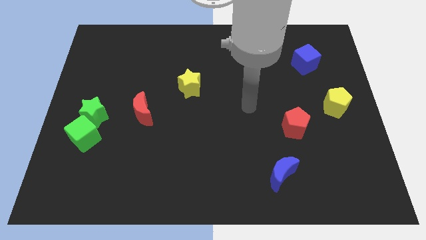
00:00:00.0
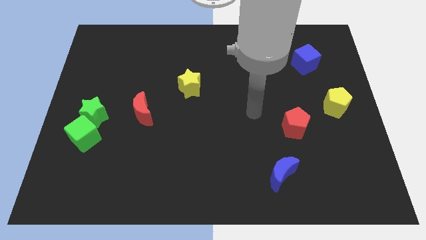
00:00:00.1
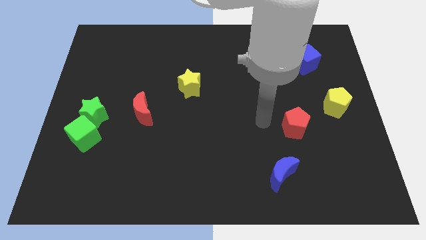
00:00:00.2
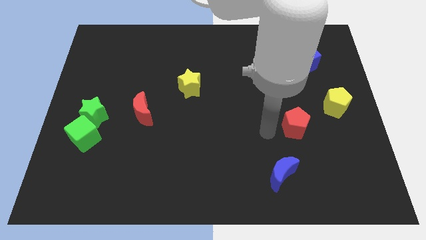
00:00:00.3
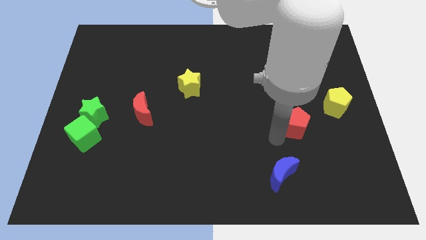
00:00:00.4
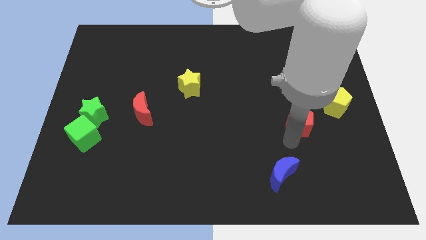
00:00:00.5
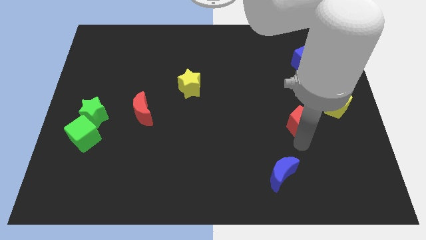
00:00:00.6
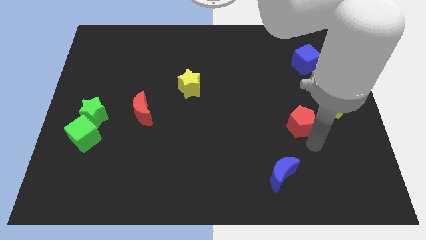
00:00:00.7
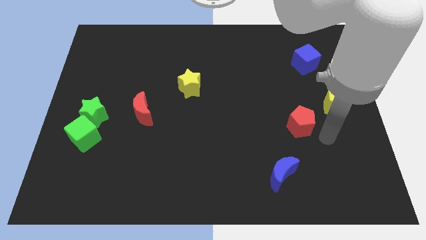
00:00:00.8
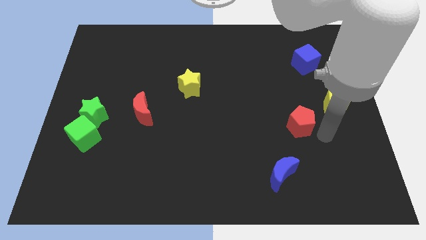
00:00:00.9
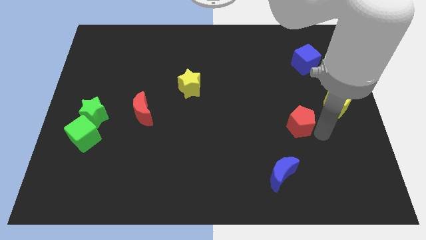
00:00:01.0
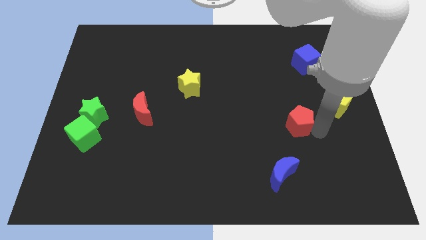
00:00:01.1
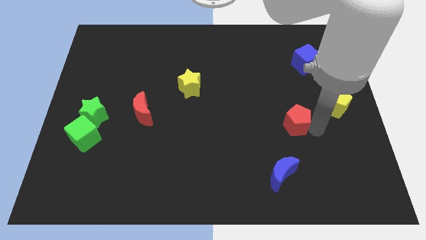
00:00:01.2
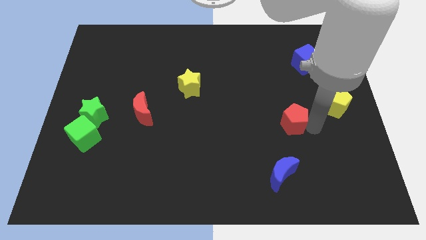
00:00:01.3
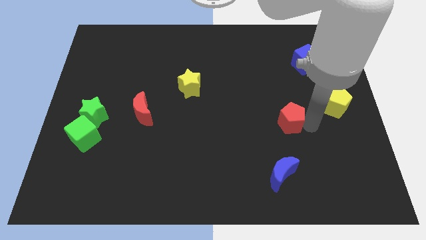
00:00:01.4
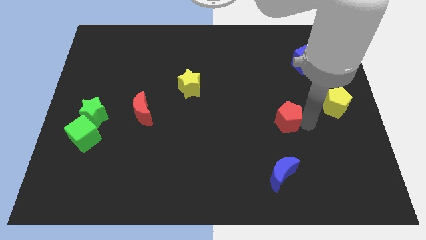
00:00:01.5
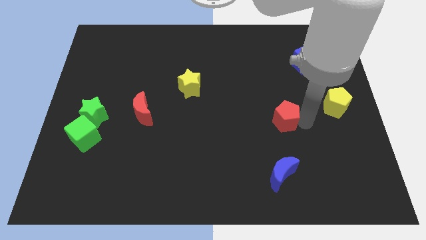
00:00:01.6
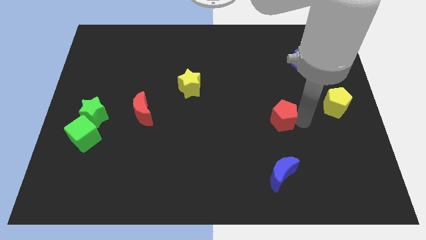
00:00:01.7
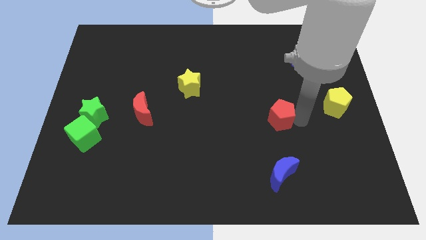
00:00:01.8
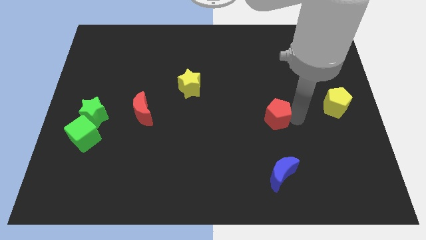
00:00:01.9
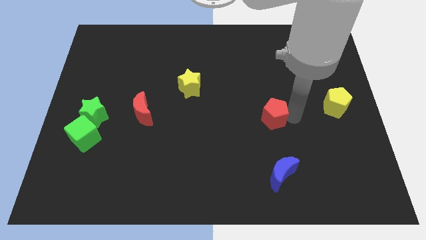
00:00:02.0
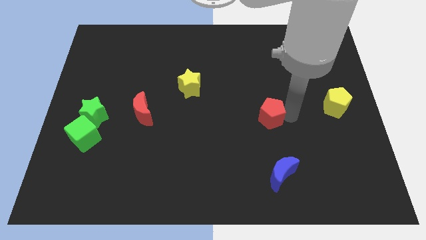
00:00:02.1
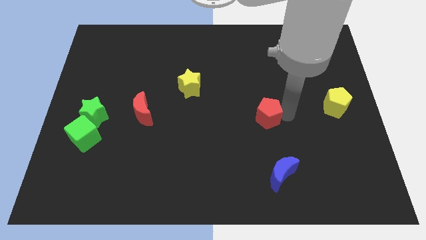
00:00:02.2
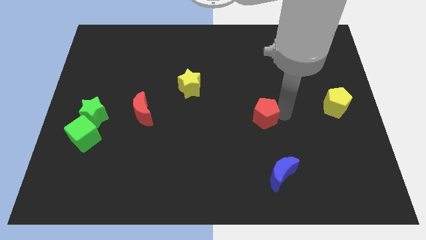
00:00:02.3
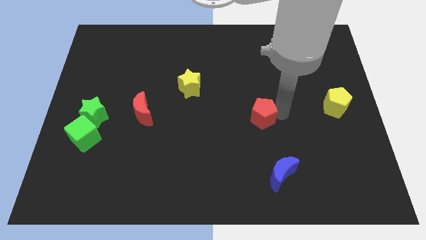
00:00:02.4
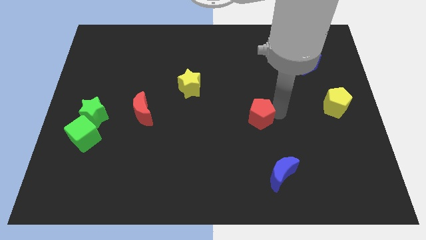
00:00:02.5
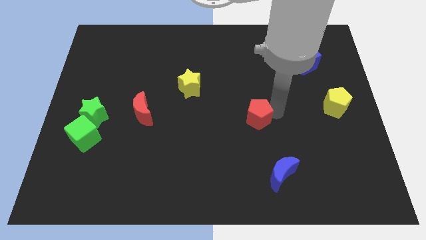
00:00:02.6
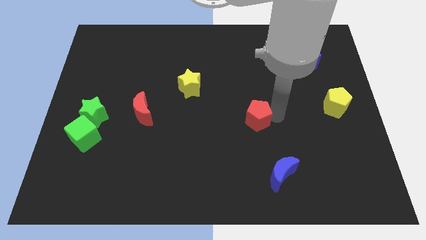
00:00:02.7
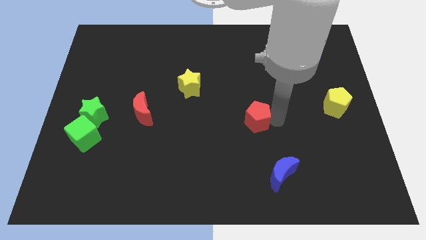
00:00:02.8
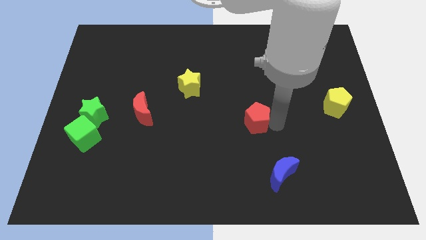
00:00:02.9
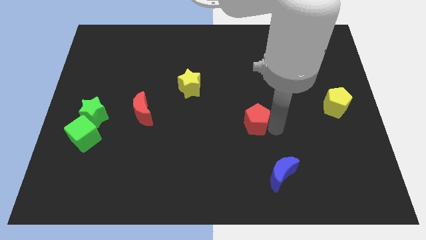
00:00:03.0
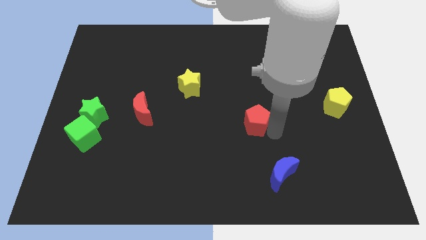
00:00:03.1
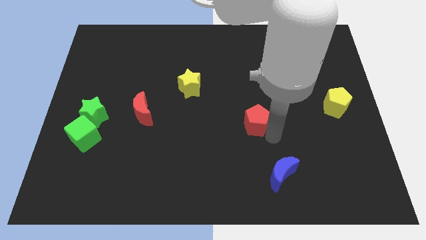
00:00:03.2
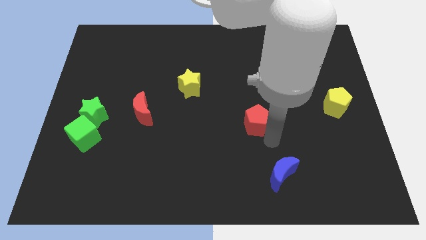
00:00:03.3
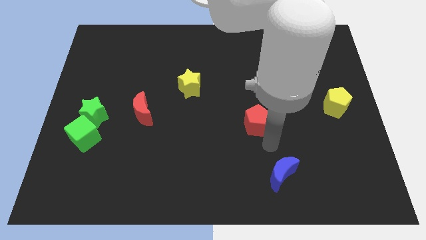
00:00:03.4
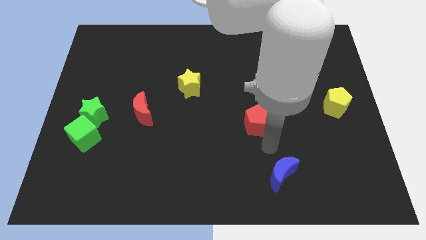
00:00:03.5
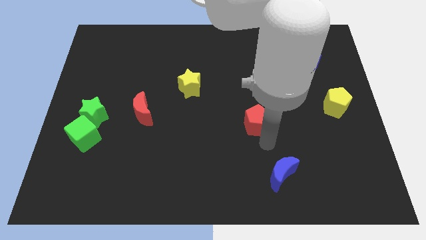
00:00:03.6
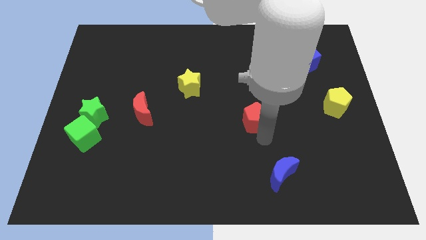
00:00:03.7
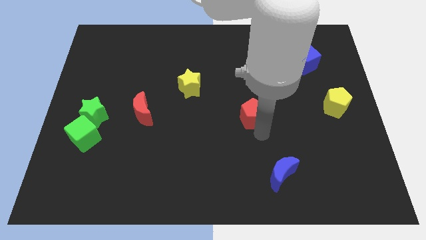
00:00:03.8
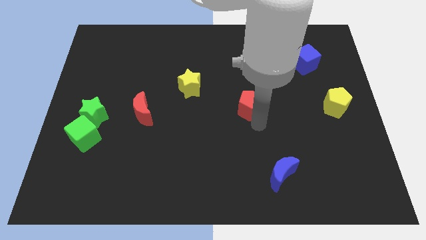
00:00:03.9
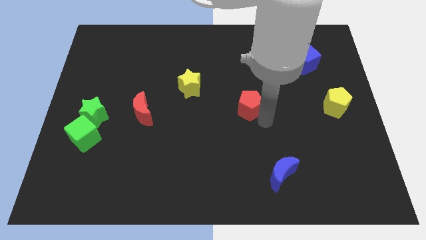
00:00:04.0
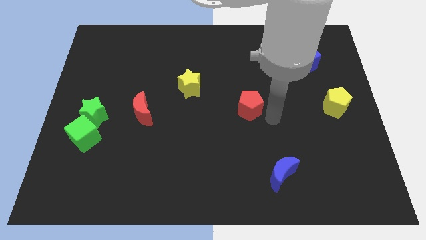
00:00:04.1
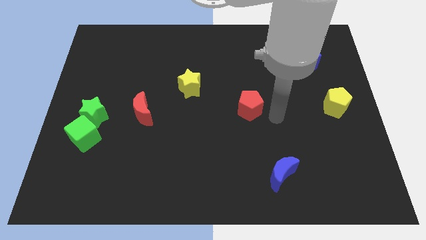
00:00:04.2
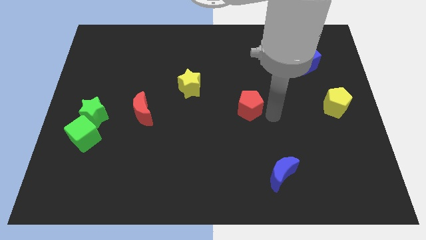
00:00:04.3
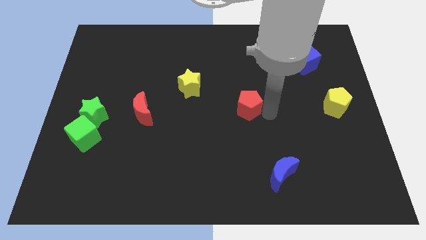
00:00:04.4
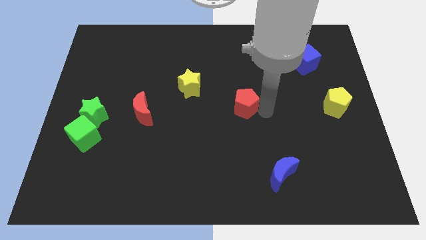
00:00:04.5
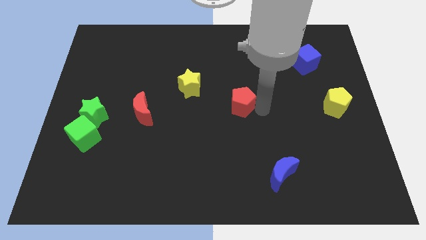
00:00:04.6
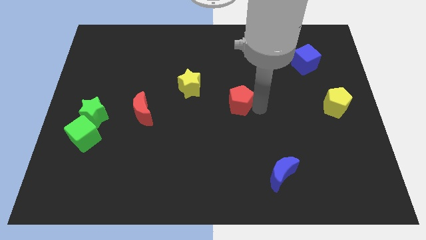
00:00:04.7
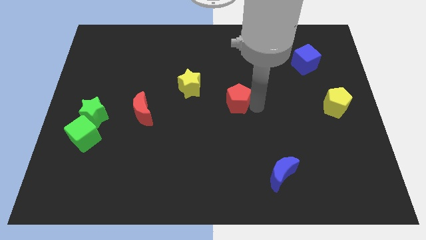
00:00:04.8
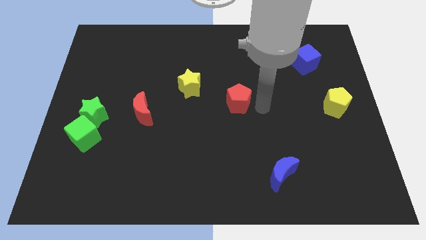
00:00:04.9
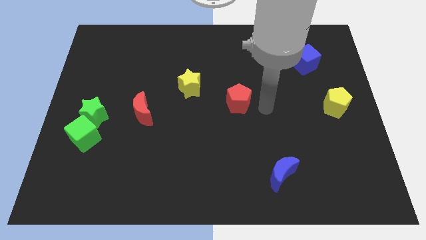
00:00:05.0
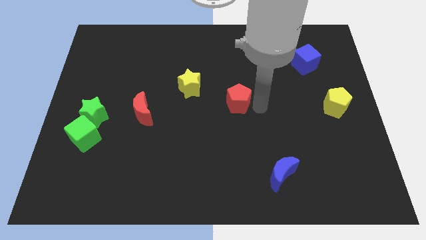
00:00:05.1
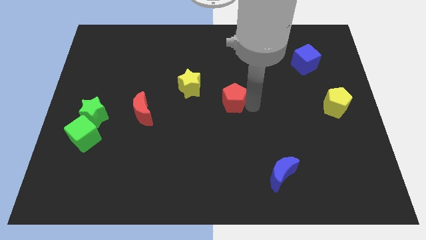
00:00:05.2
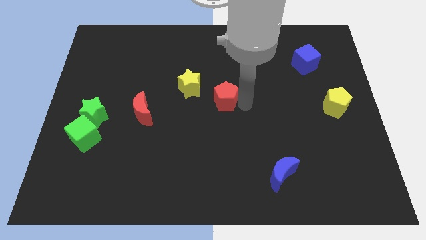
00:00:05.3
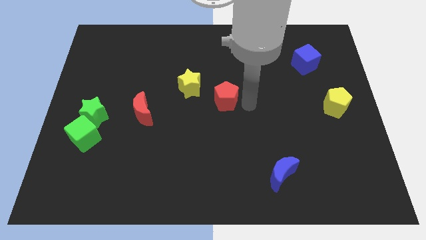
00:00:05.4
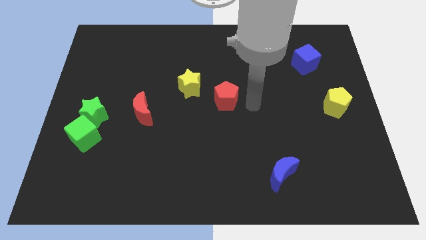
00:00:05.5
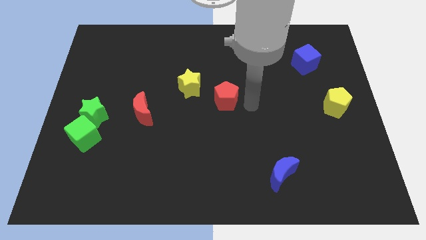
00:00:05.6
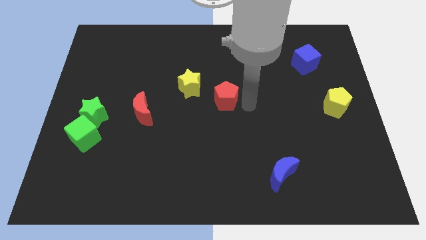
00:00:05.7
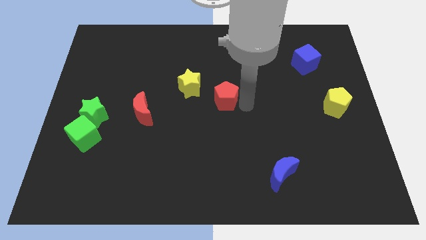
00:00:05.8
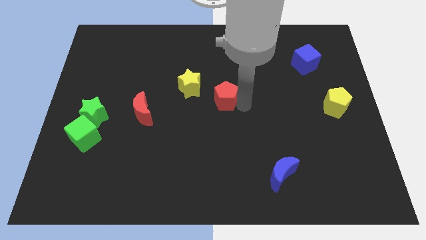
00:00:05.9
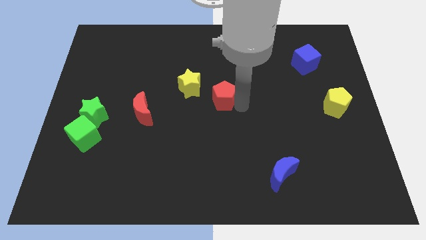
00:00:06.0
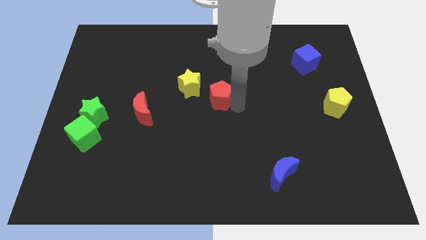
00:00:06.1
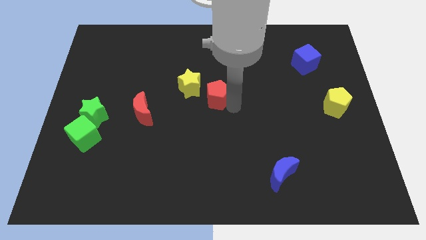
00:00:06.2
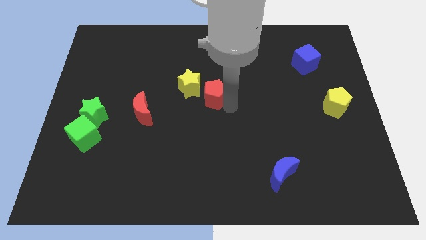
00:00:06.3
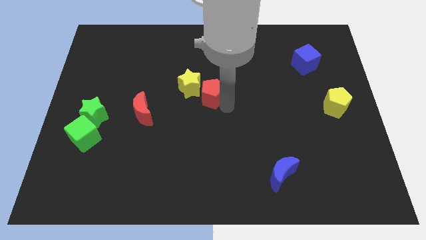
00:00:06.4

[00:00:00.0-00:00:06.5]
slide the red pentagon close to the yellow star

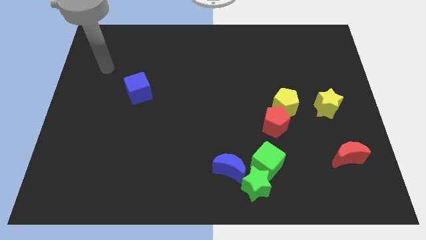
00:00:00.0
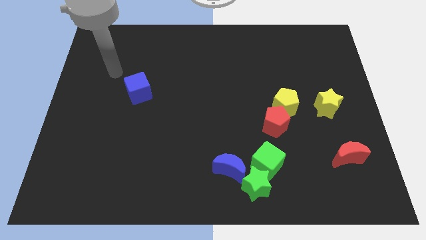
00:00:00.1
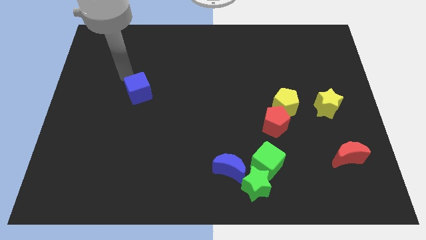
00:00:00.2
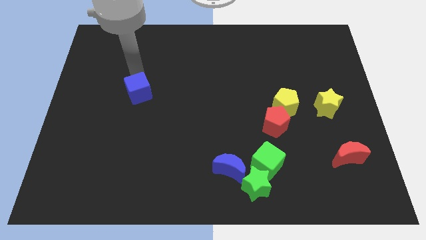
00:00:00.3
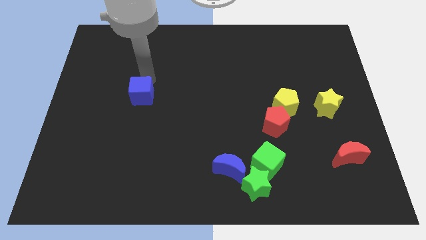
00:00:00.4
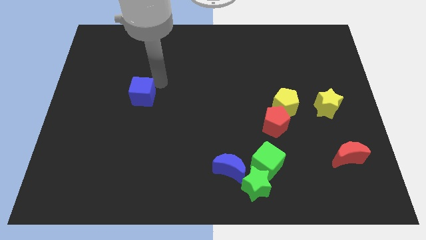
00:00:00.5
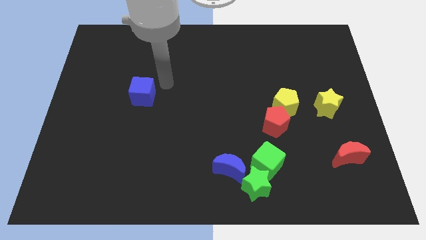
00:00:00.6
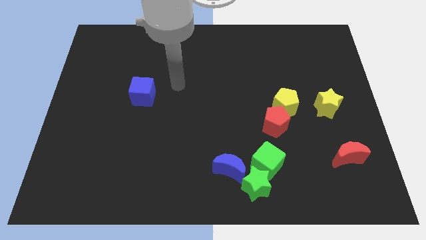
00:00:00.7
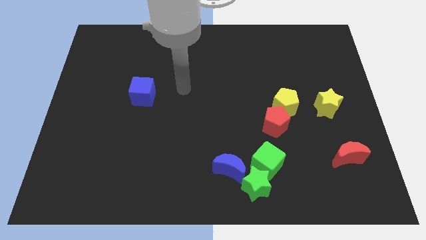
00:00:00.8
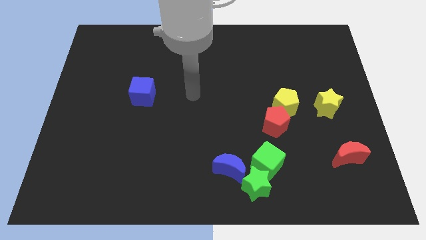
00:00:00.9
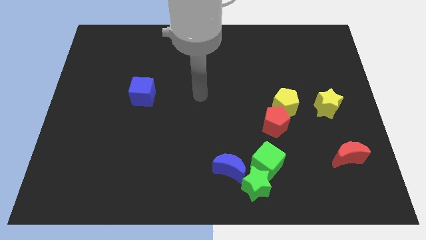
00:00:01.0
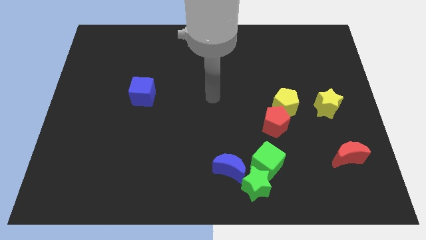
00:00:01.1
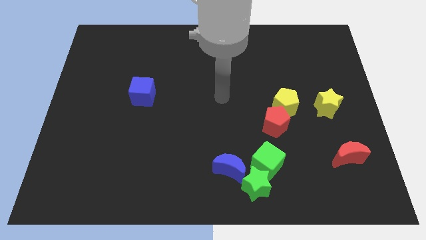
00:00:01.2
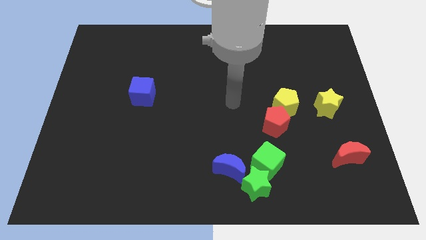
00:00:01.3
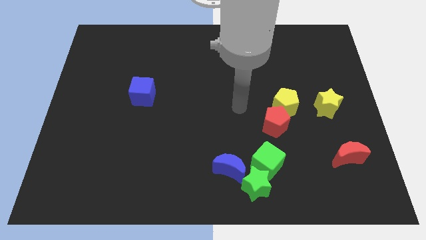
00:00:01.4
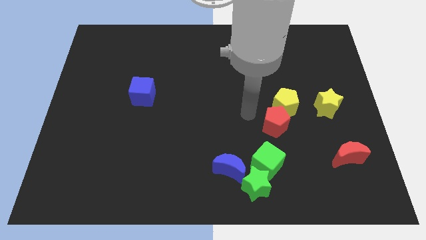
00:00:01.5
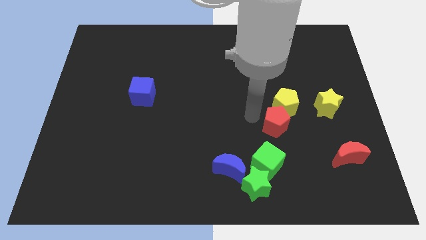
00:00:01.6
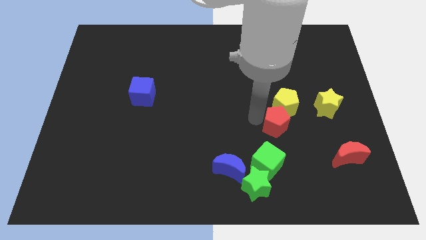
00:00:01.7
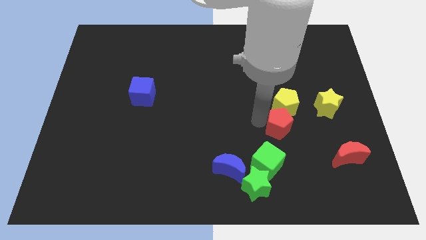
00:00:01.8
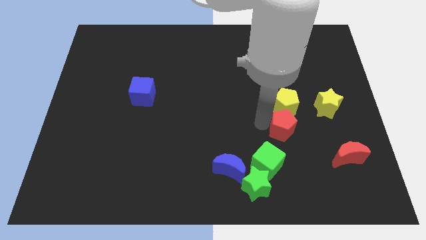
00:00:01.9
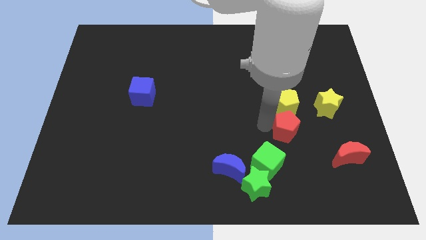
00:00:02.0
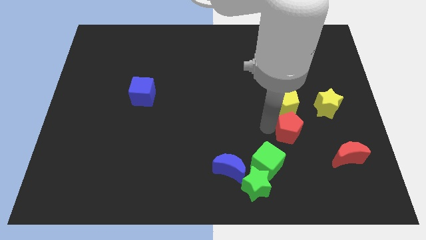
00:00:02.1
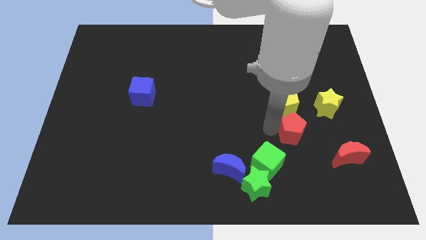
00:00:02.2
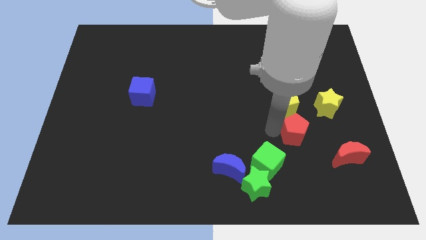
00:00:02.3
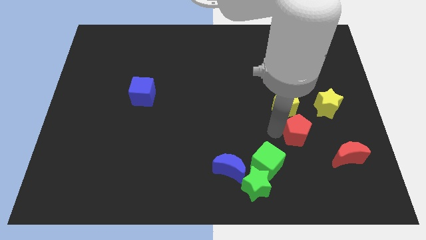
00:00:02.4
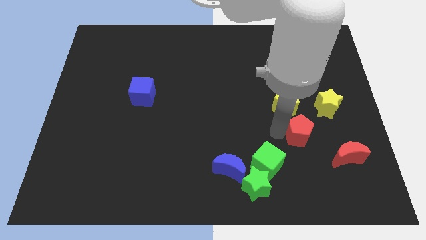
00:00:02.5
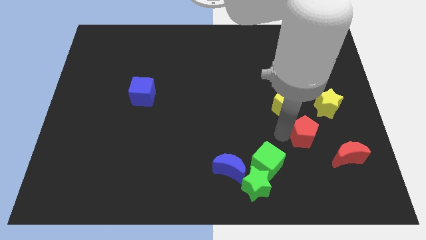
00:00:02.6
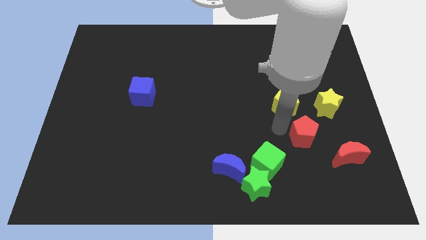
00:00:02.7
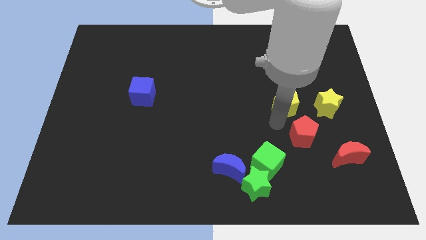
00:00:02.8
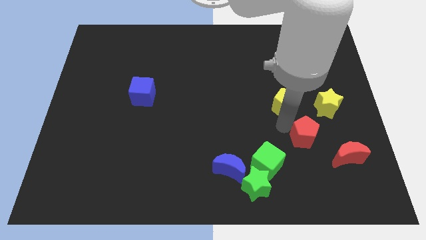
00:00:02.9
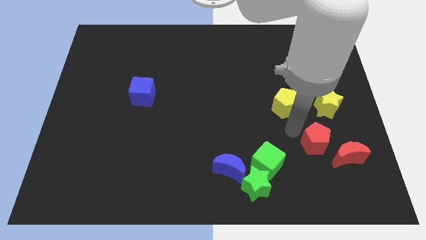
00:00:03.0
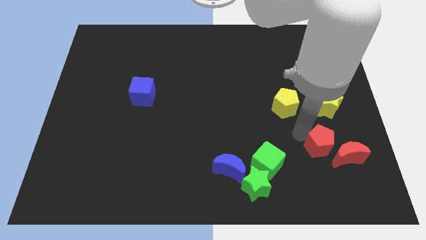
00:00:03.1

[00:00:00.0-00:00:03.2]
move the red pentagon to the red moon
